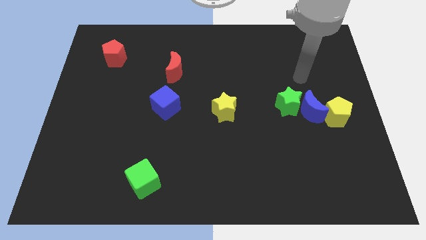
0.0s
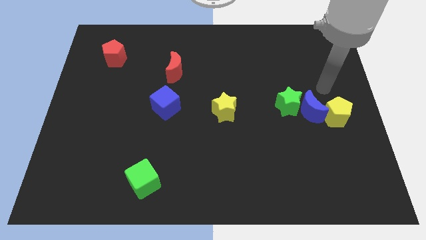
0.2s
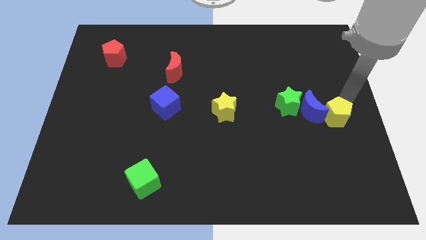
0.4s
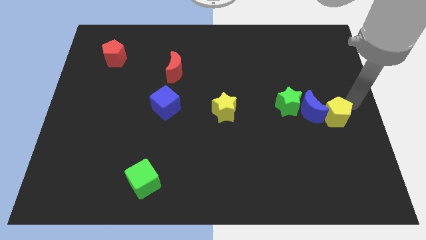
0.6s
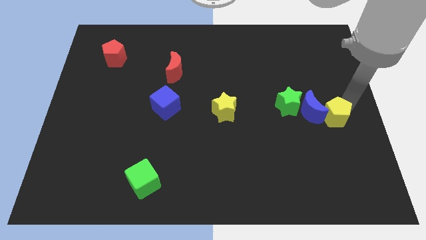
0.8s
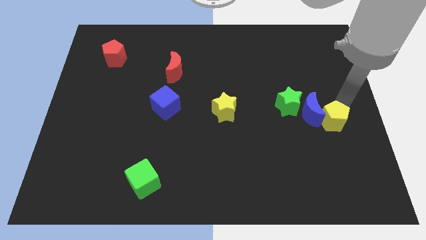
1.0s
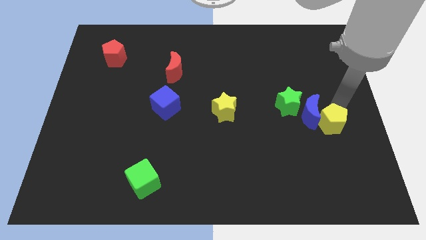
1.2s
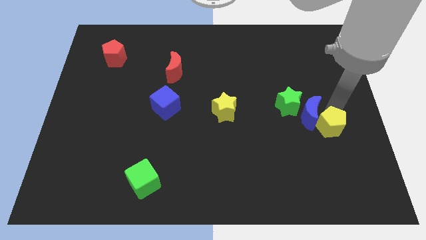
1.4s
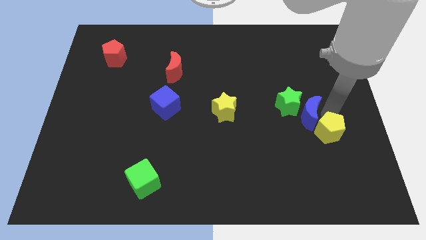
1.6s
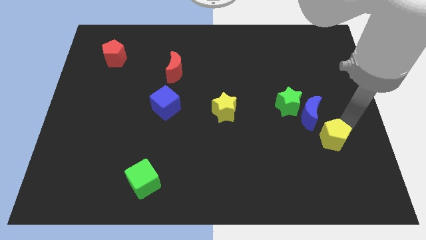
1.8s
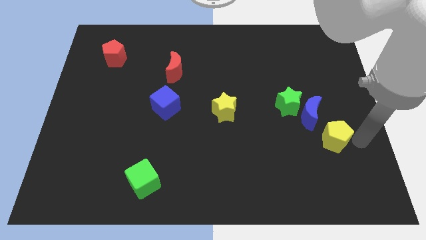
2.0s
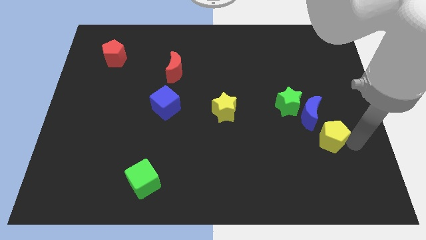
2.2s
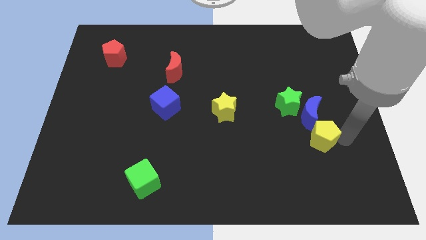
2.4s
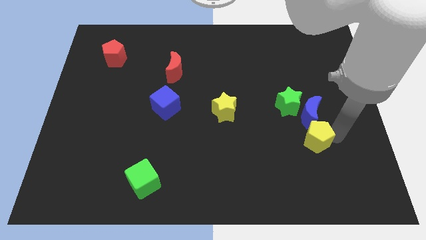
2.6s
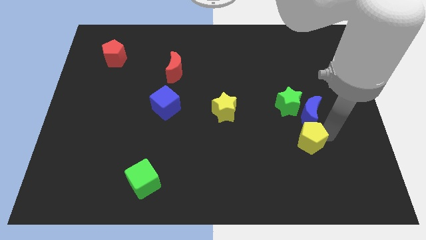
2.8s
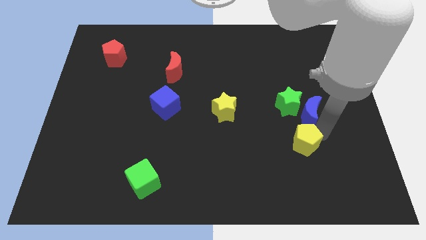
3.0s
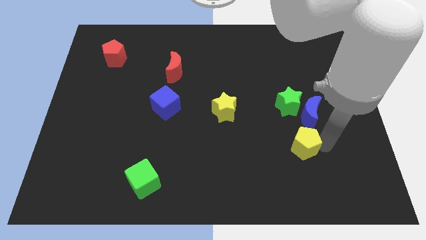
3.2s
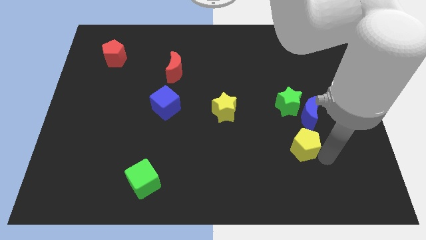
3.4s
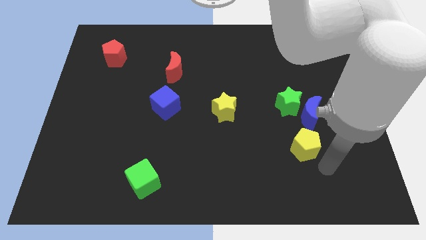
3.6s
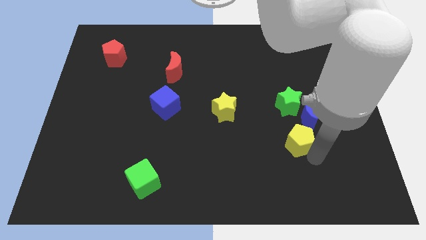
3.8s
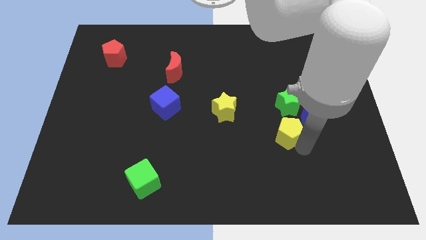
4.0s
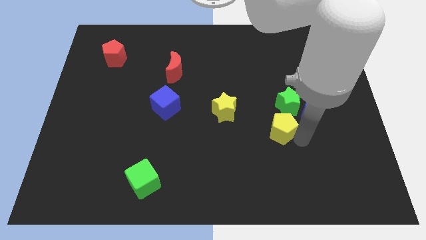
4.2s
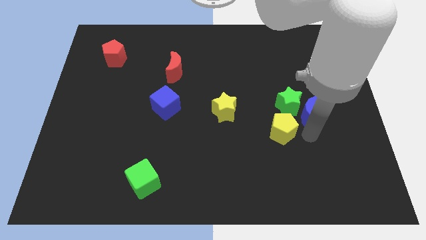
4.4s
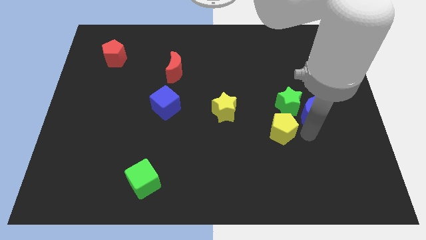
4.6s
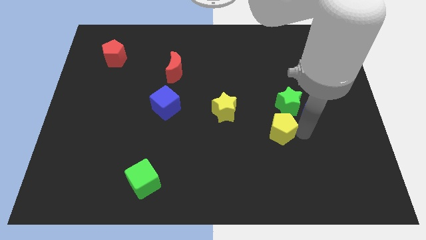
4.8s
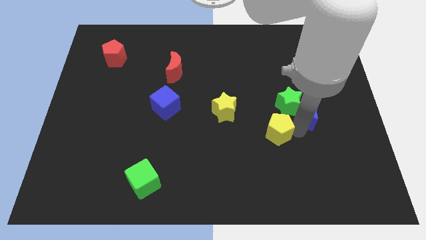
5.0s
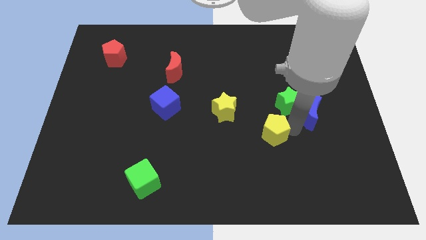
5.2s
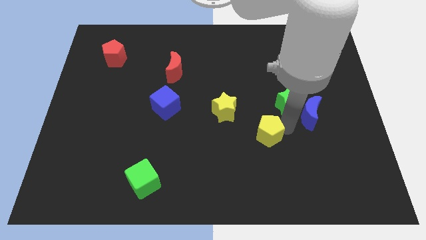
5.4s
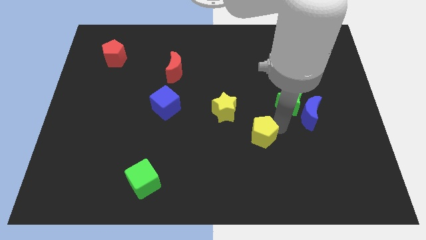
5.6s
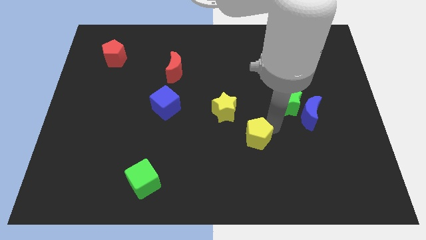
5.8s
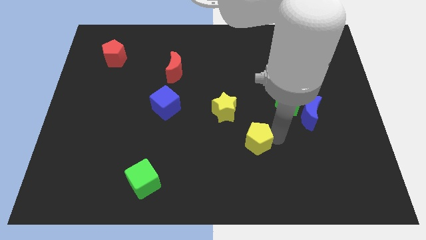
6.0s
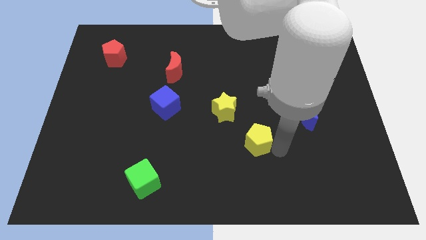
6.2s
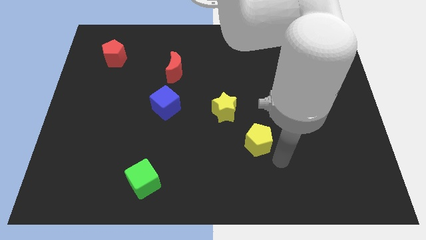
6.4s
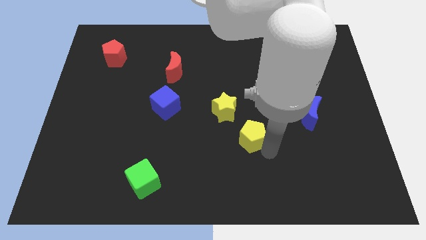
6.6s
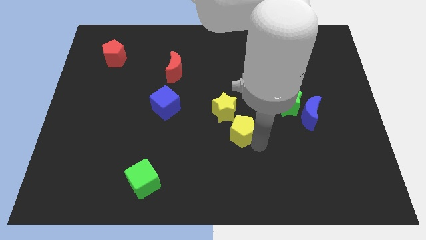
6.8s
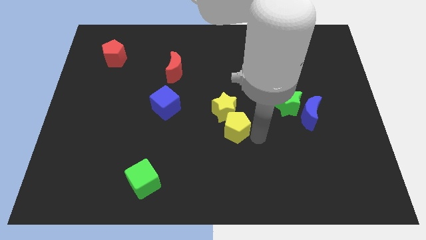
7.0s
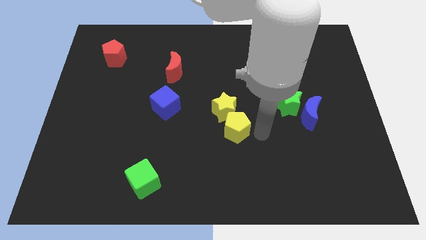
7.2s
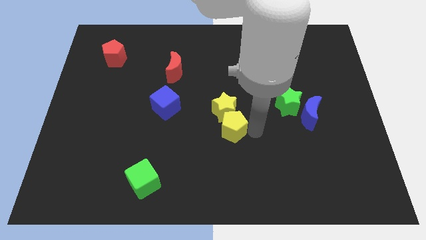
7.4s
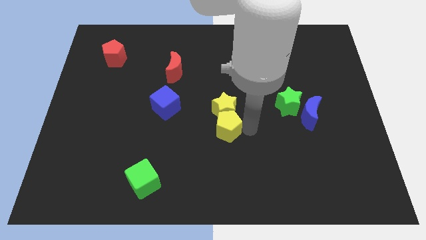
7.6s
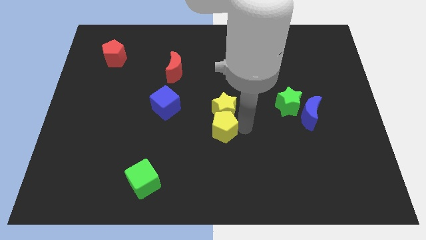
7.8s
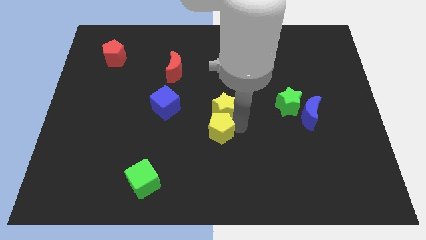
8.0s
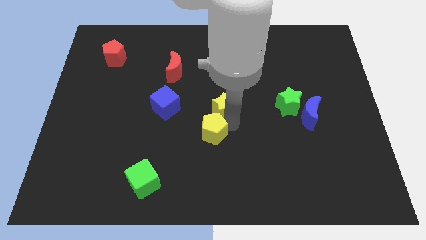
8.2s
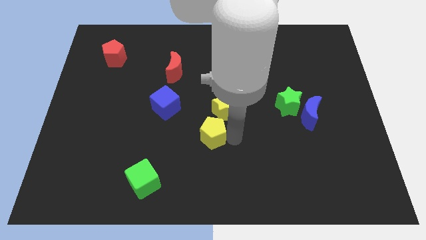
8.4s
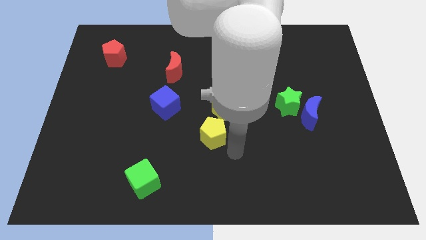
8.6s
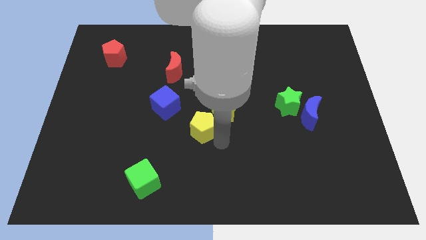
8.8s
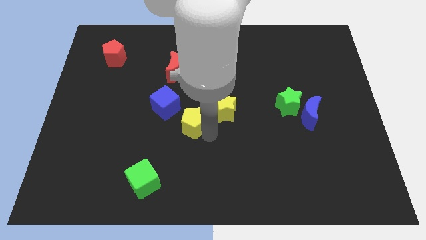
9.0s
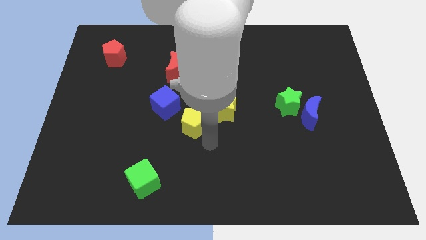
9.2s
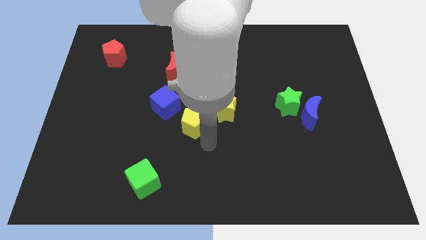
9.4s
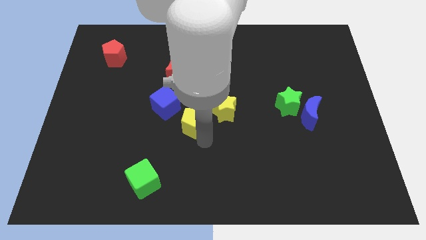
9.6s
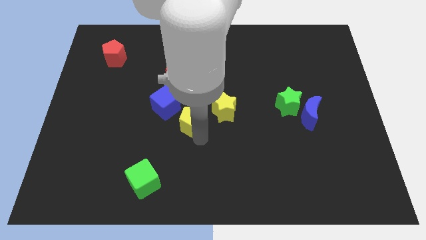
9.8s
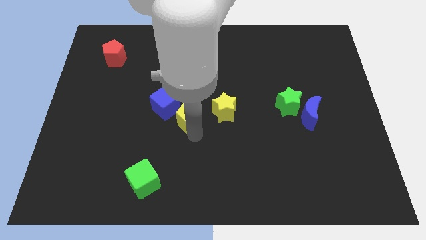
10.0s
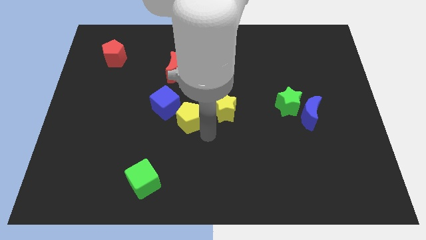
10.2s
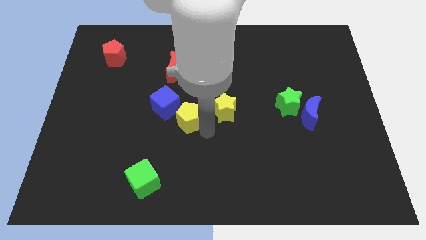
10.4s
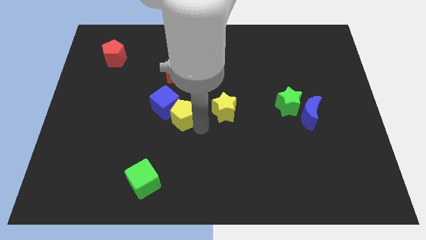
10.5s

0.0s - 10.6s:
put the yellow pentagon close to the blue cube

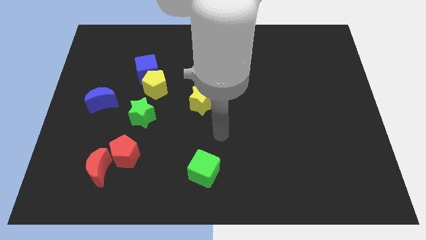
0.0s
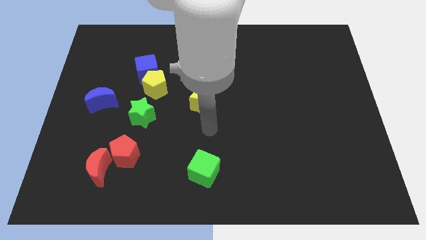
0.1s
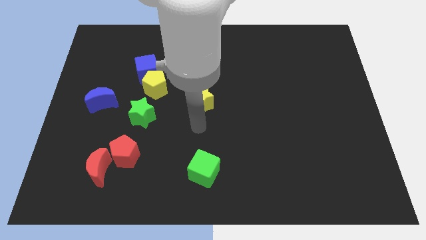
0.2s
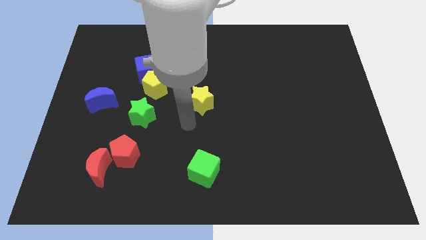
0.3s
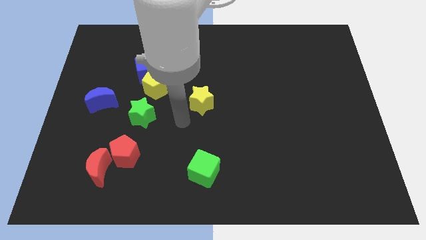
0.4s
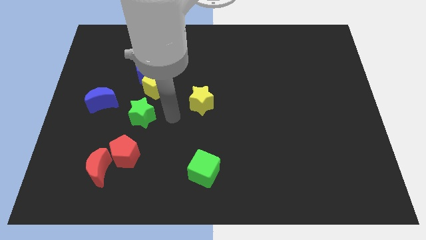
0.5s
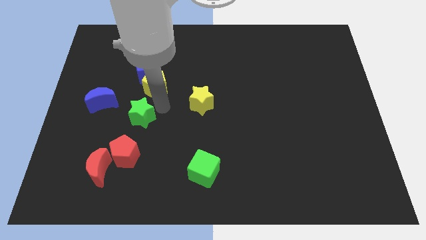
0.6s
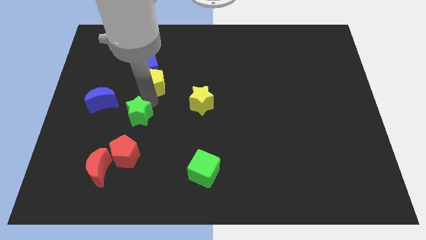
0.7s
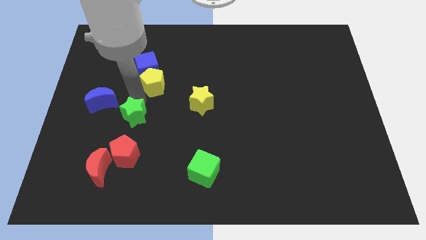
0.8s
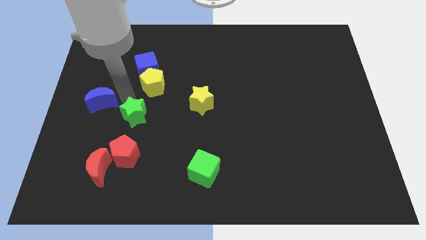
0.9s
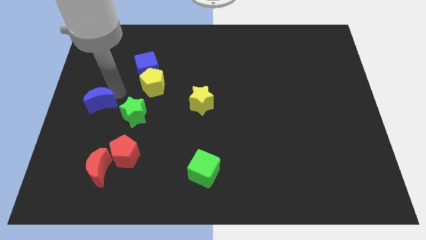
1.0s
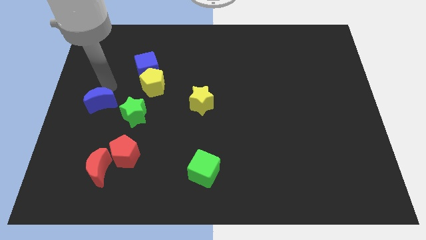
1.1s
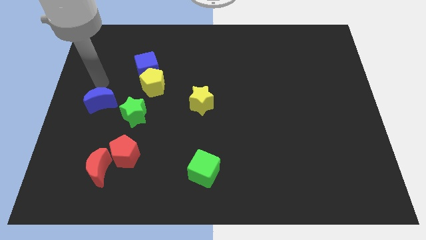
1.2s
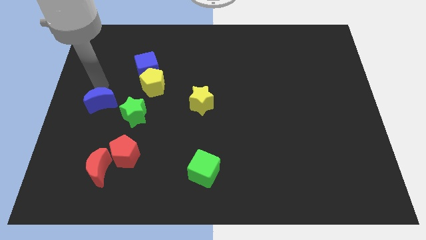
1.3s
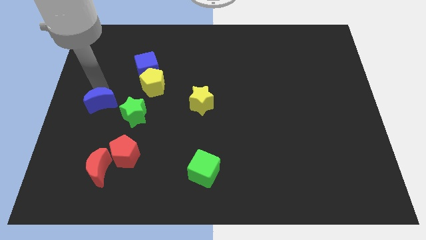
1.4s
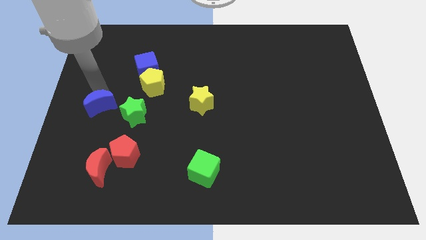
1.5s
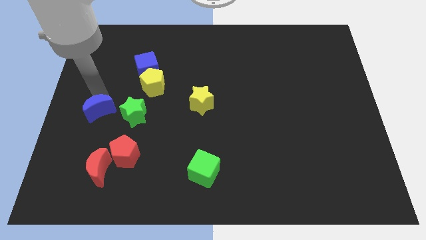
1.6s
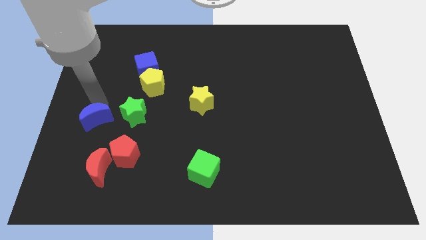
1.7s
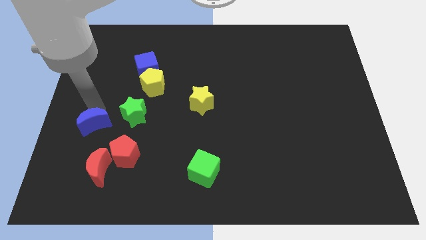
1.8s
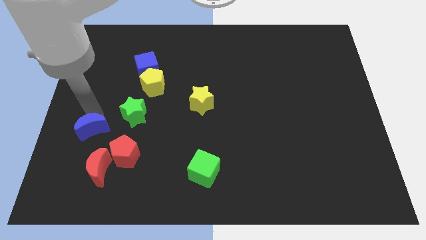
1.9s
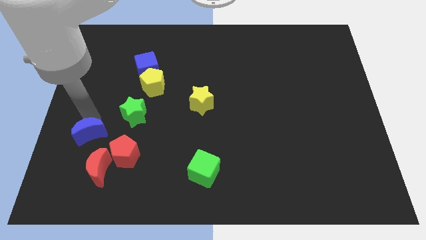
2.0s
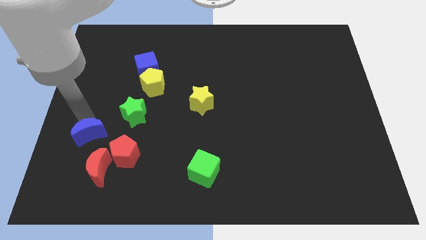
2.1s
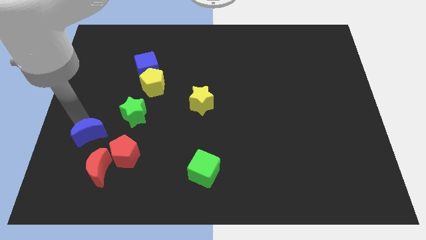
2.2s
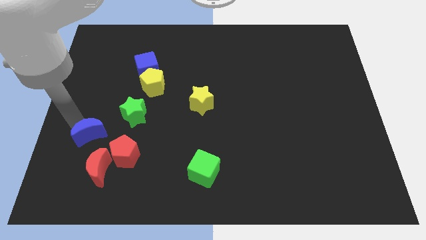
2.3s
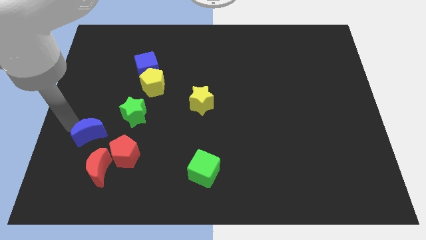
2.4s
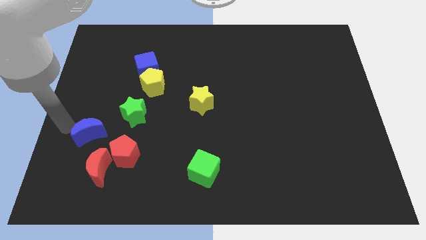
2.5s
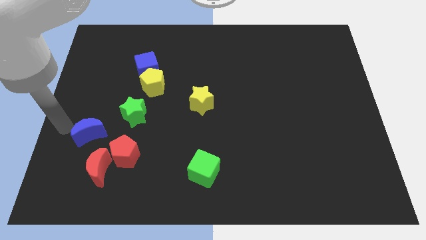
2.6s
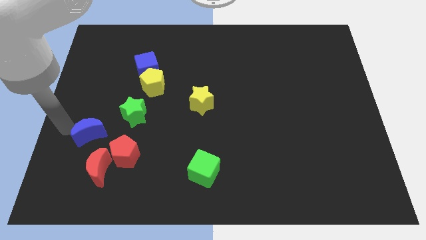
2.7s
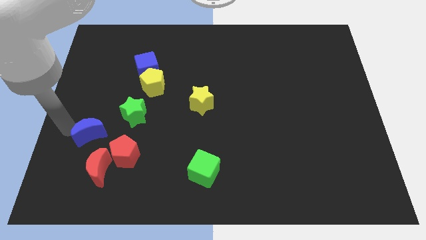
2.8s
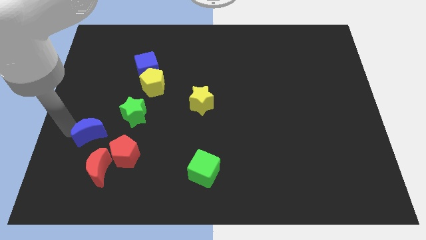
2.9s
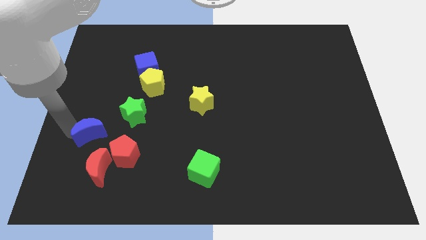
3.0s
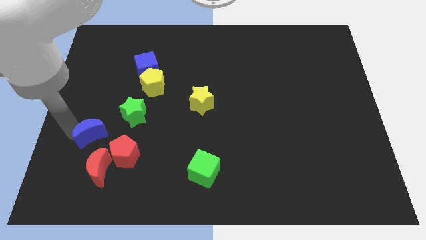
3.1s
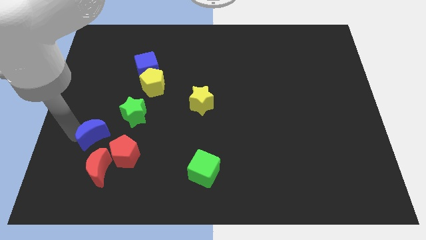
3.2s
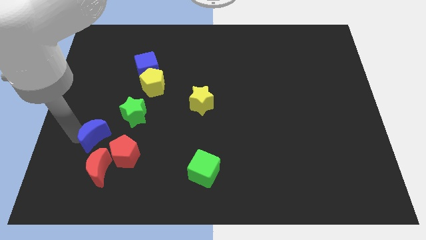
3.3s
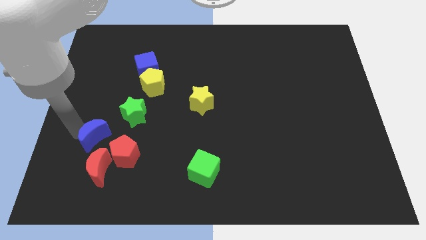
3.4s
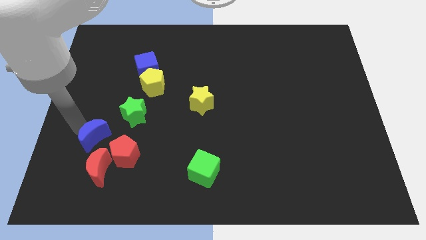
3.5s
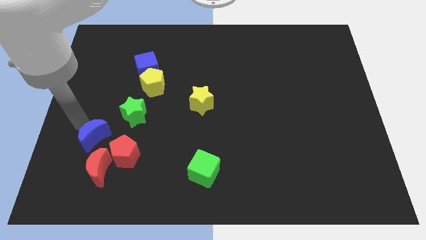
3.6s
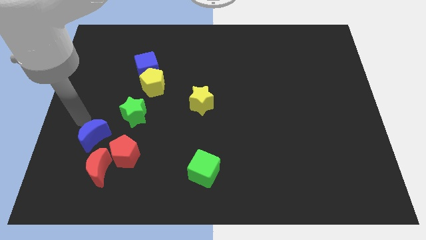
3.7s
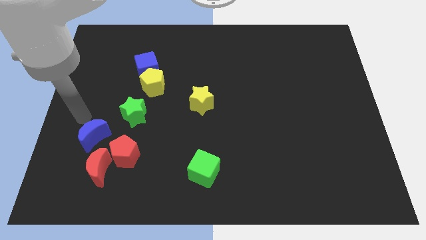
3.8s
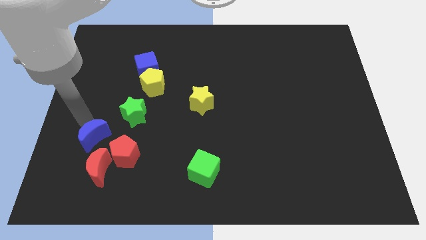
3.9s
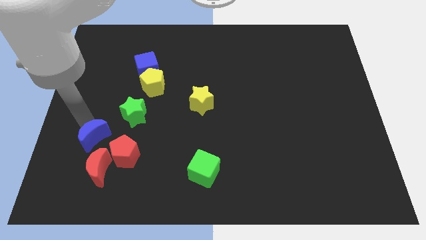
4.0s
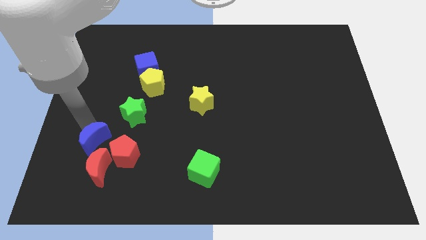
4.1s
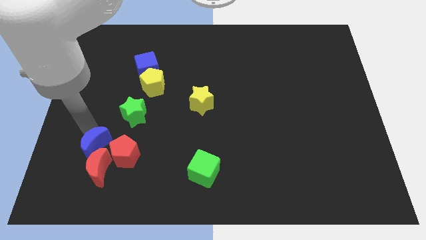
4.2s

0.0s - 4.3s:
put the blue moon to the red moon
